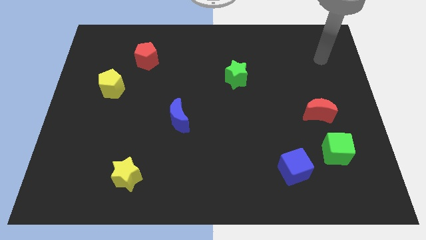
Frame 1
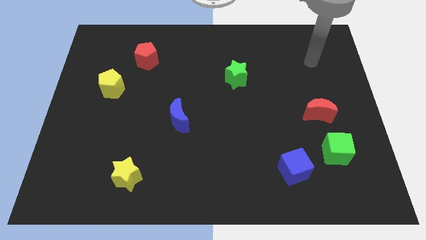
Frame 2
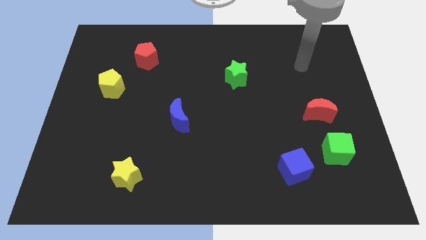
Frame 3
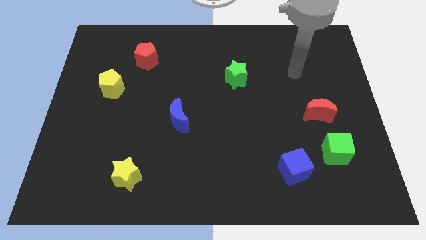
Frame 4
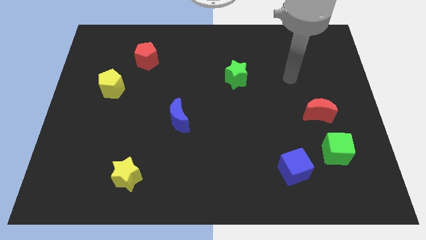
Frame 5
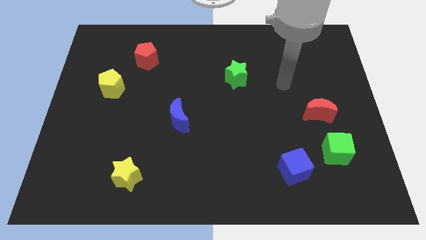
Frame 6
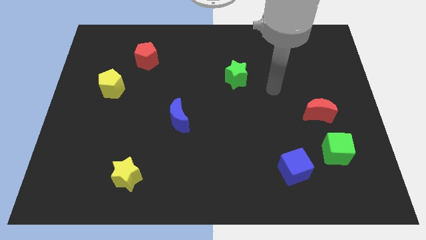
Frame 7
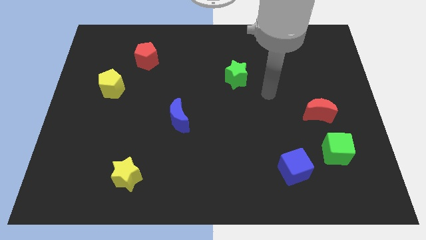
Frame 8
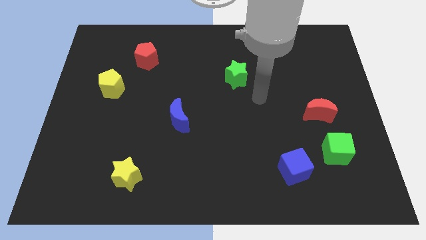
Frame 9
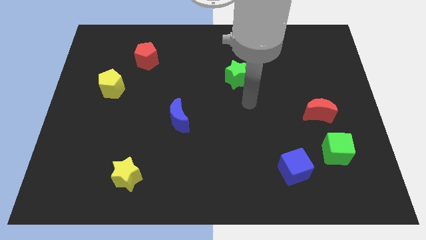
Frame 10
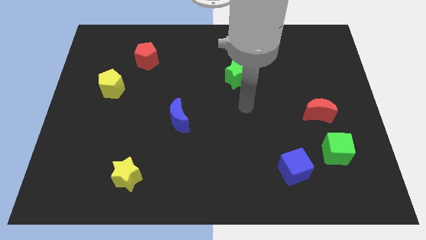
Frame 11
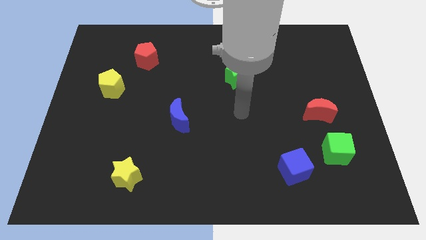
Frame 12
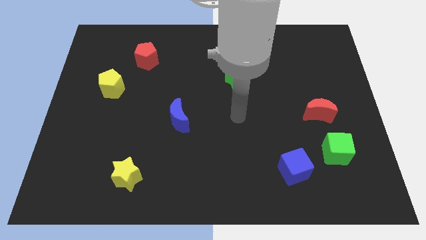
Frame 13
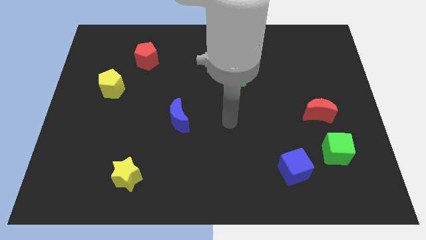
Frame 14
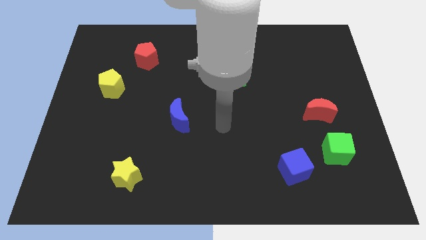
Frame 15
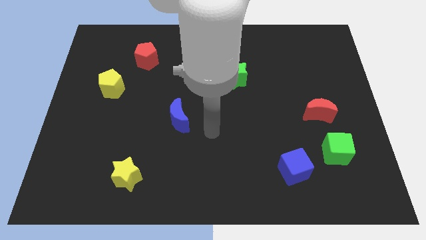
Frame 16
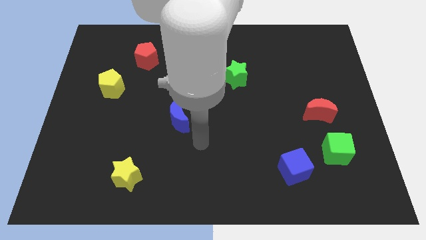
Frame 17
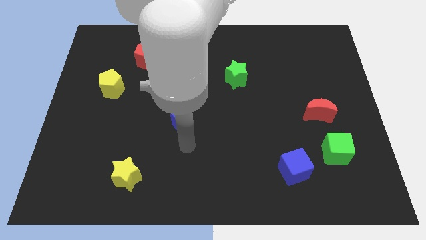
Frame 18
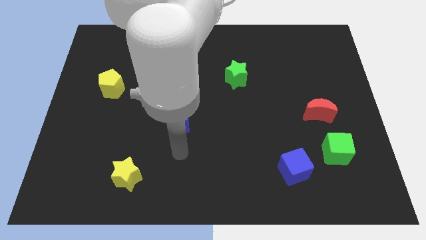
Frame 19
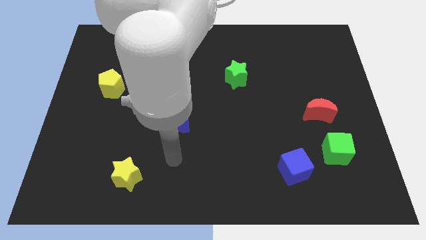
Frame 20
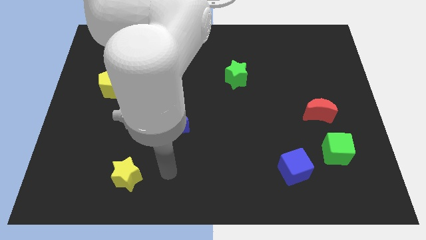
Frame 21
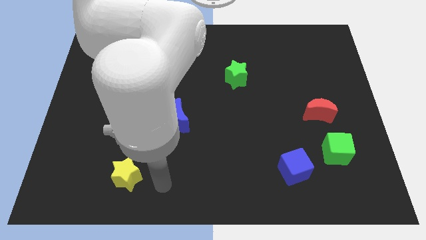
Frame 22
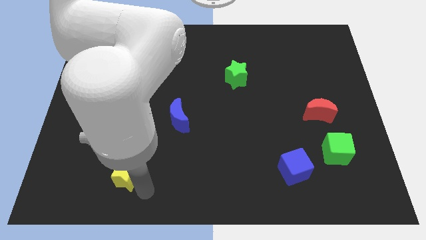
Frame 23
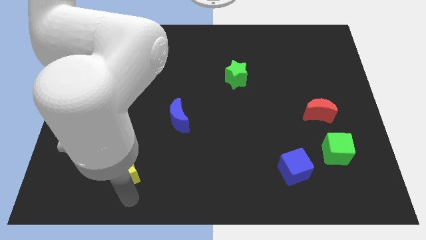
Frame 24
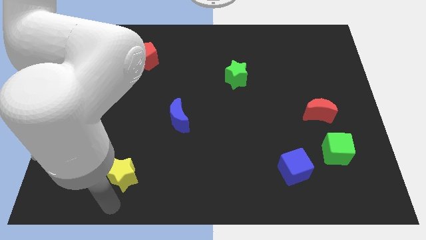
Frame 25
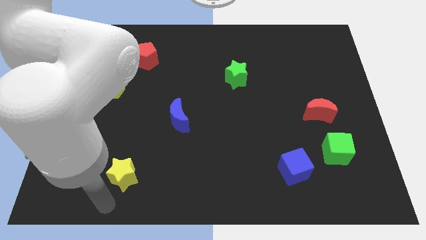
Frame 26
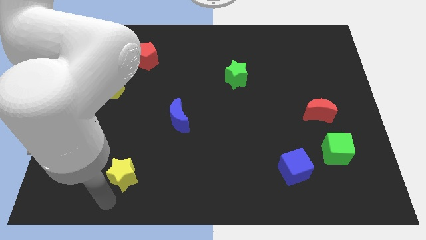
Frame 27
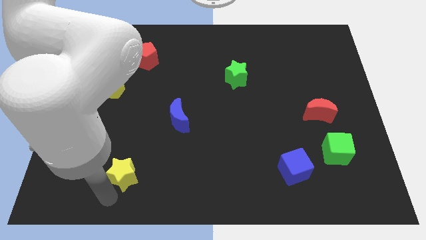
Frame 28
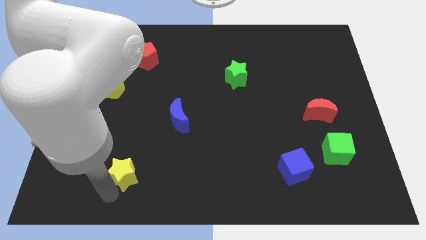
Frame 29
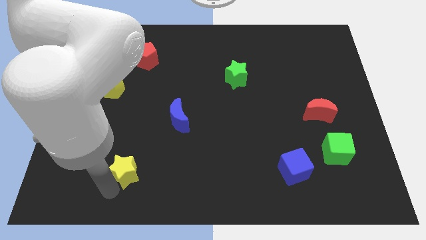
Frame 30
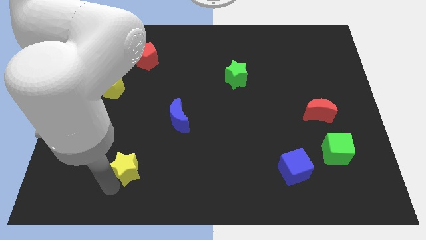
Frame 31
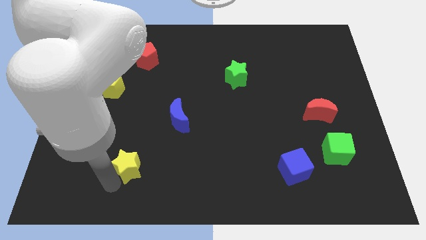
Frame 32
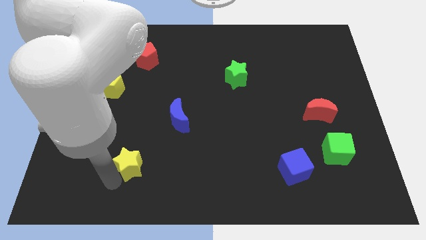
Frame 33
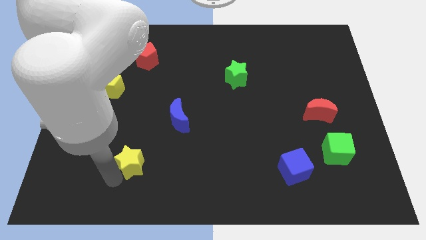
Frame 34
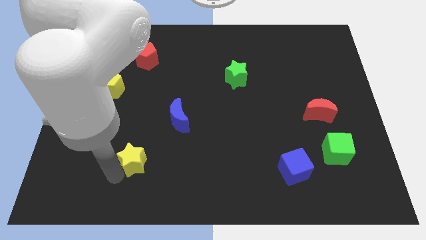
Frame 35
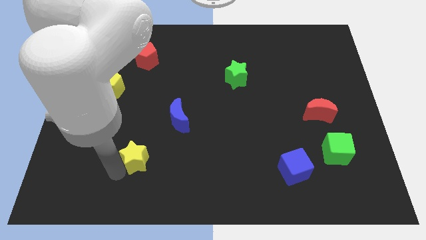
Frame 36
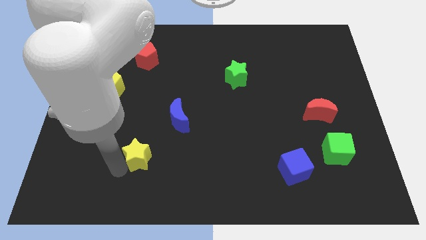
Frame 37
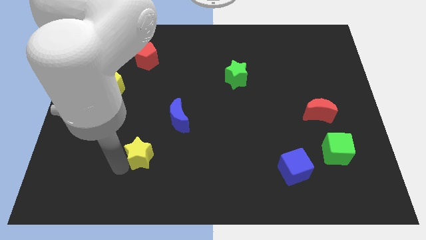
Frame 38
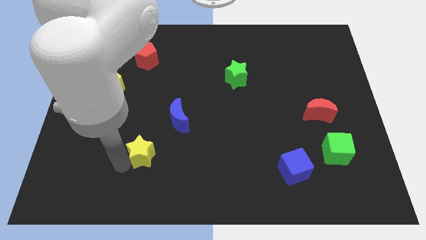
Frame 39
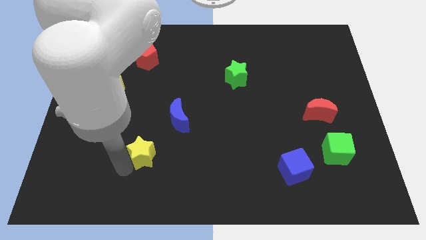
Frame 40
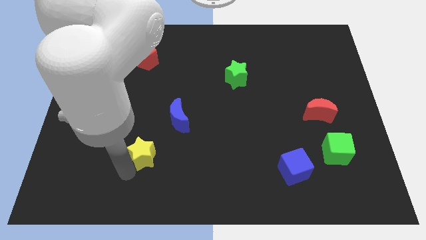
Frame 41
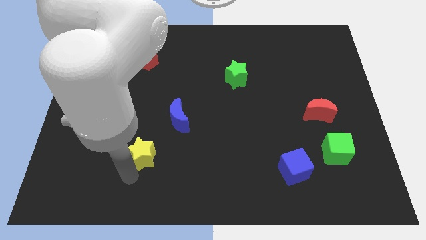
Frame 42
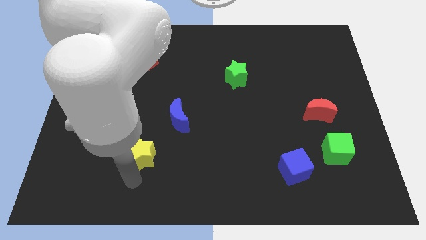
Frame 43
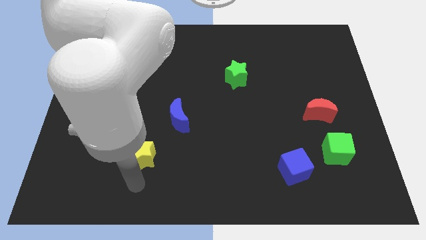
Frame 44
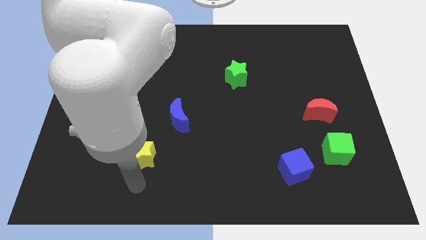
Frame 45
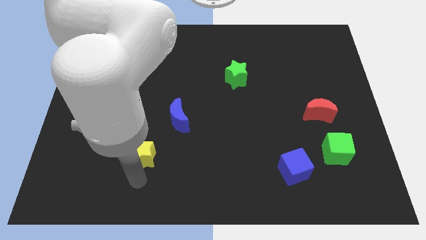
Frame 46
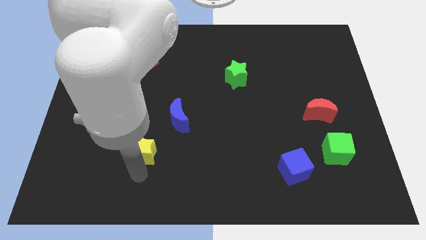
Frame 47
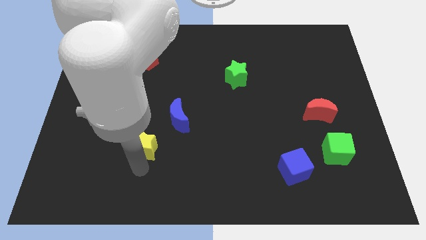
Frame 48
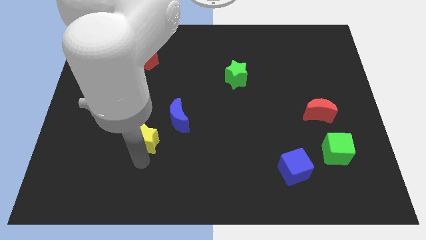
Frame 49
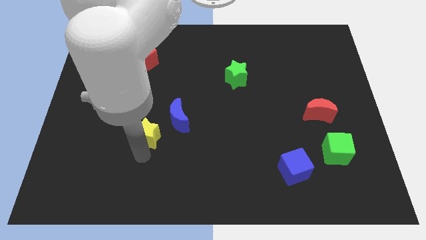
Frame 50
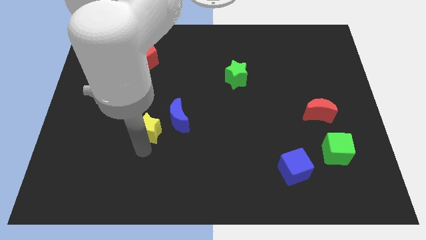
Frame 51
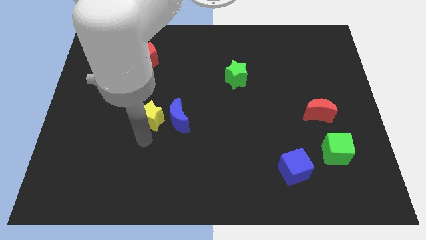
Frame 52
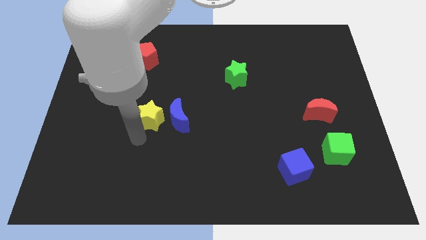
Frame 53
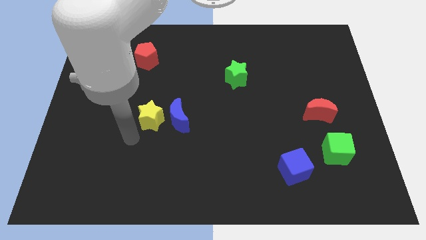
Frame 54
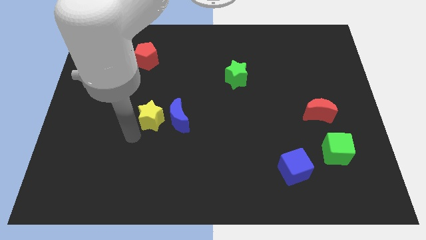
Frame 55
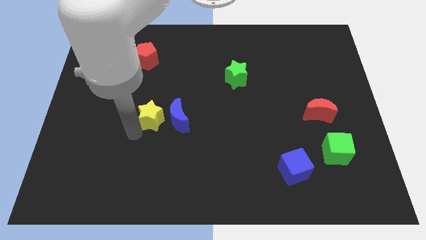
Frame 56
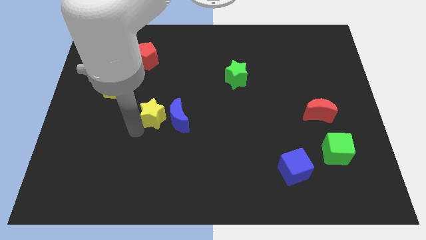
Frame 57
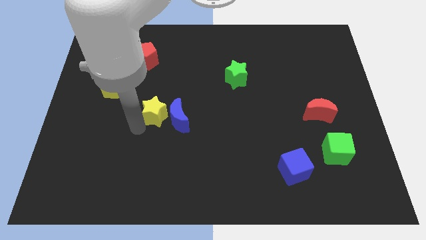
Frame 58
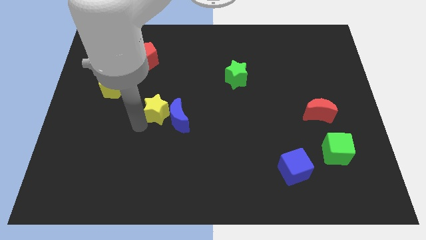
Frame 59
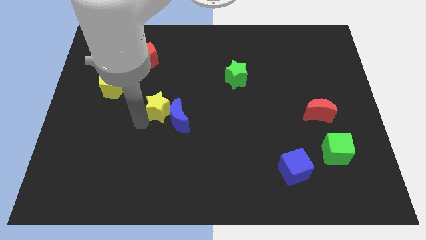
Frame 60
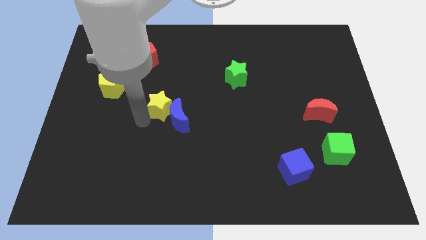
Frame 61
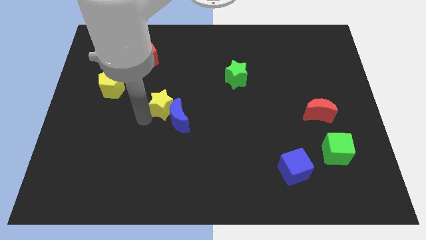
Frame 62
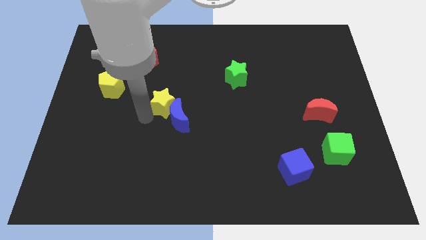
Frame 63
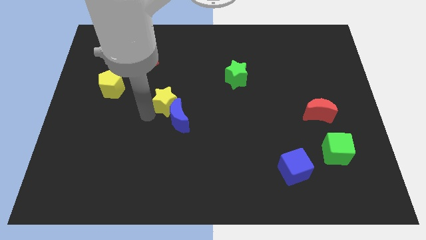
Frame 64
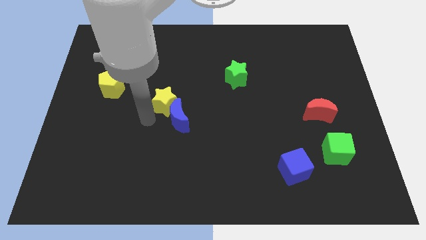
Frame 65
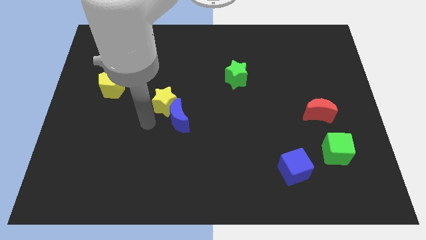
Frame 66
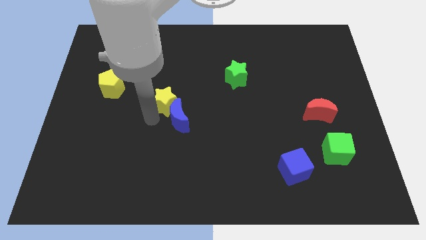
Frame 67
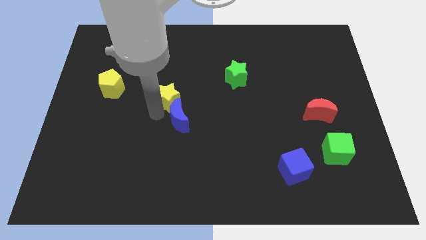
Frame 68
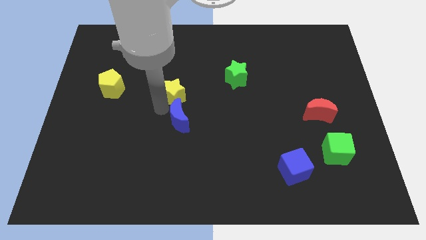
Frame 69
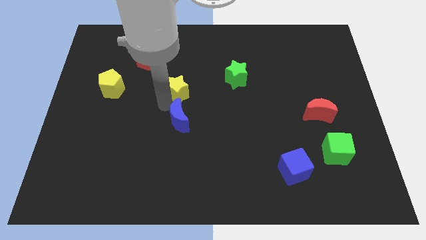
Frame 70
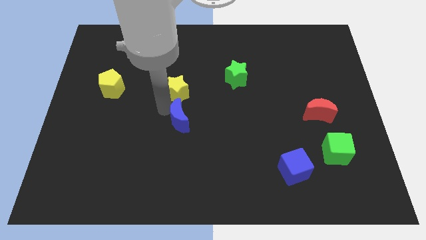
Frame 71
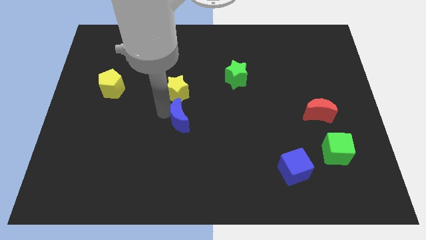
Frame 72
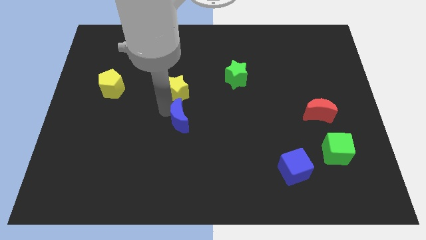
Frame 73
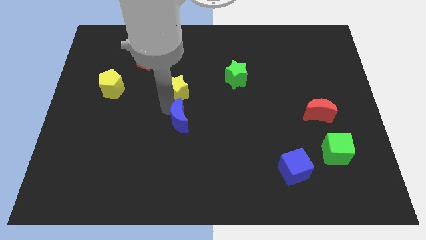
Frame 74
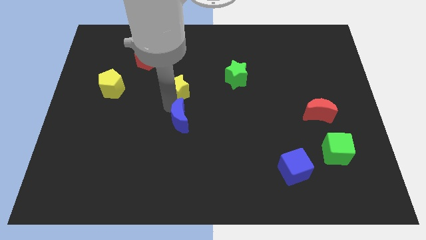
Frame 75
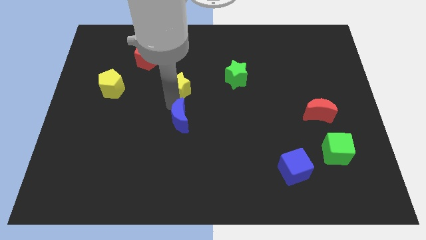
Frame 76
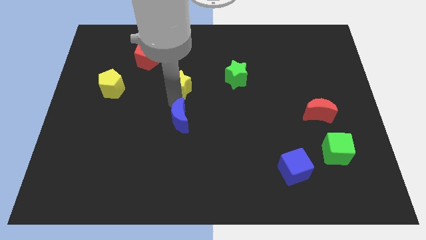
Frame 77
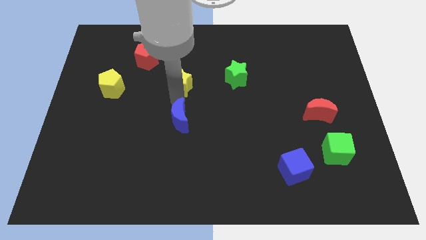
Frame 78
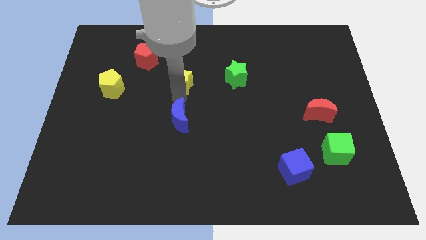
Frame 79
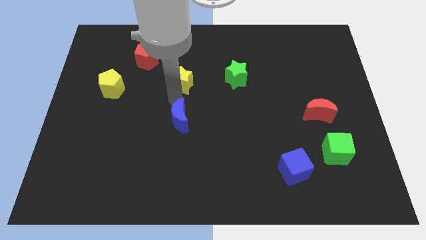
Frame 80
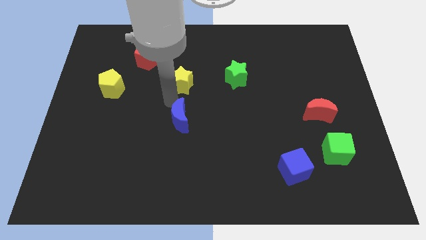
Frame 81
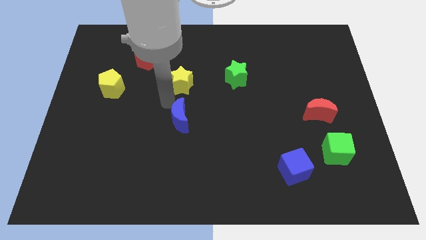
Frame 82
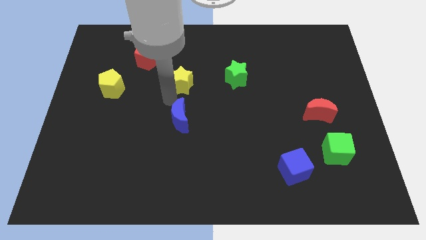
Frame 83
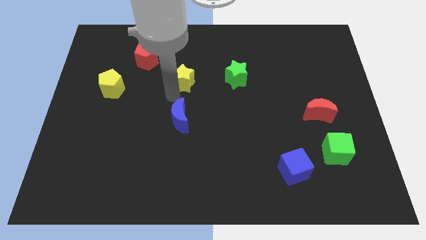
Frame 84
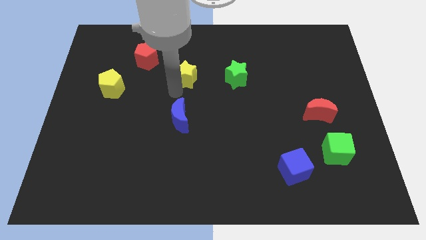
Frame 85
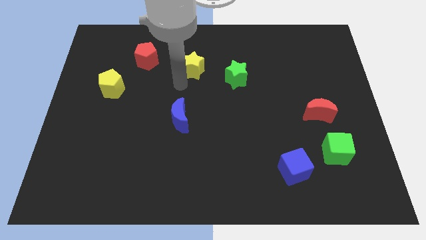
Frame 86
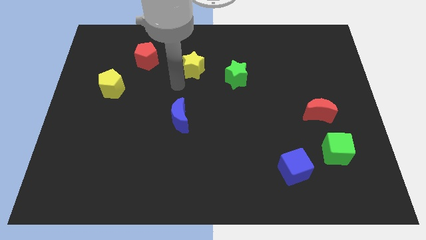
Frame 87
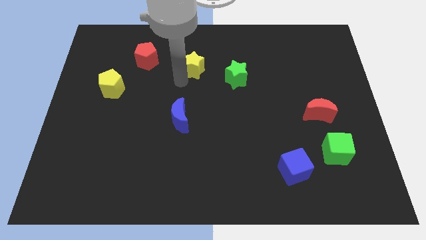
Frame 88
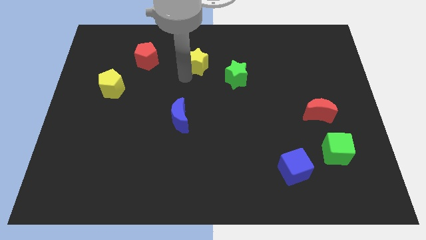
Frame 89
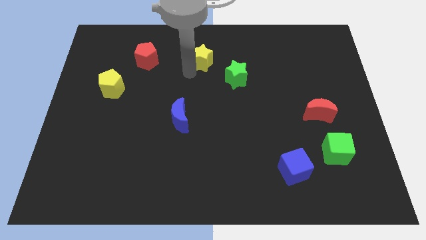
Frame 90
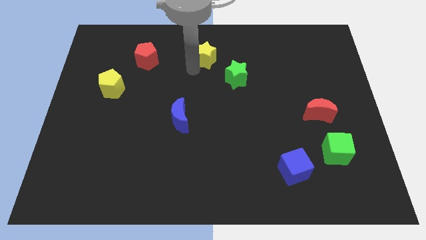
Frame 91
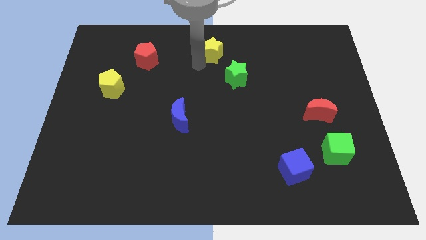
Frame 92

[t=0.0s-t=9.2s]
put the yellow star to the top
